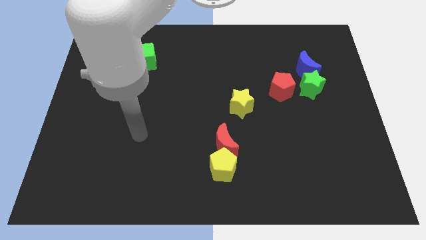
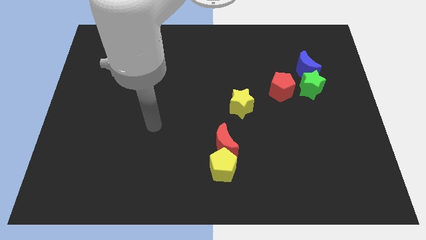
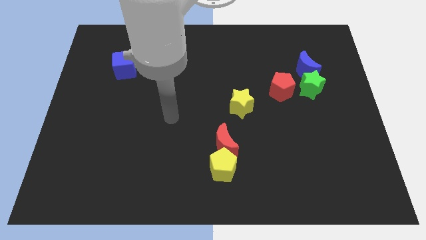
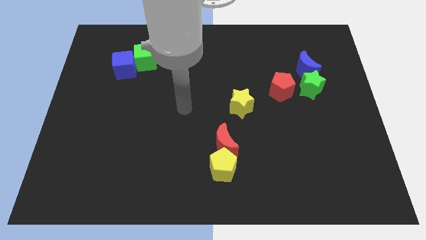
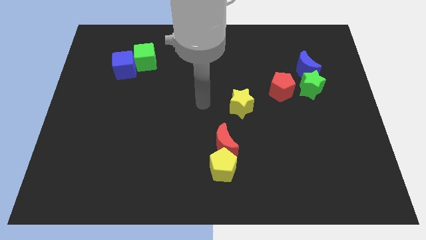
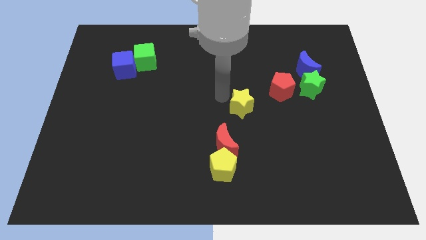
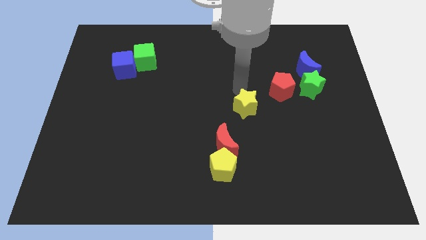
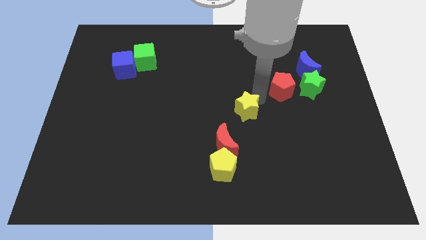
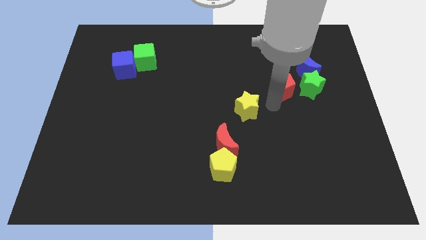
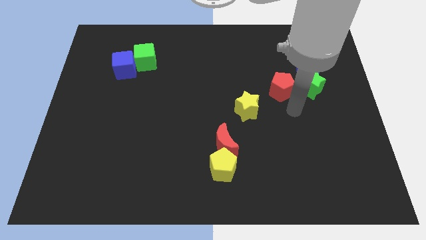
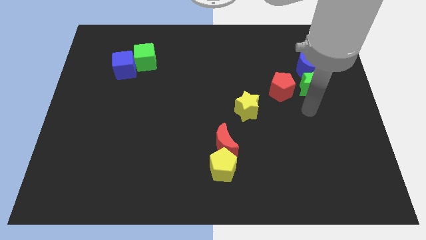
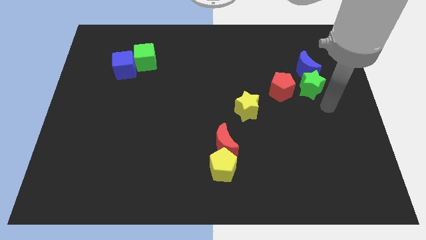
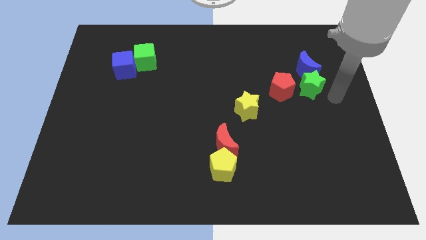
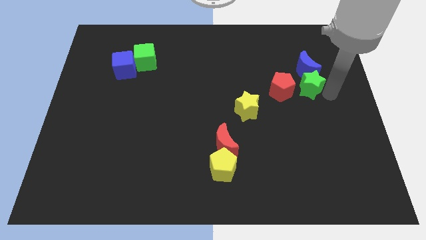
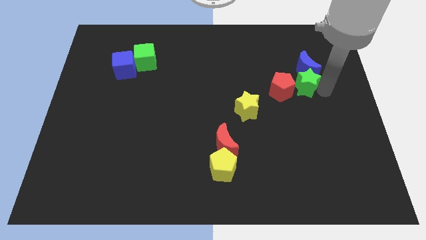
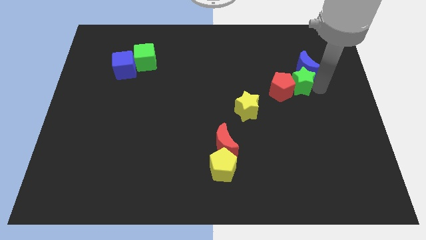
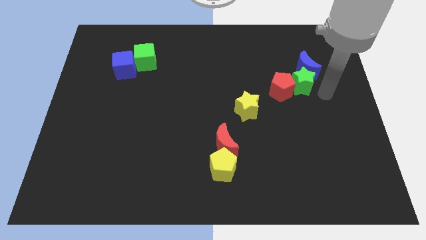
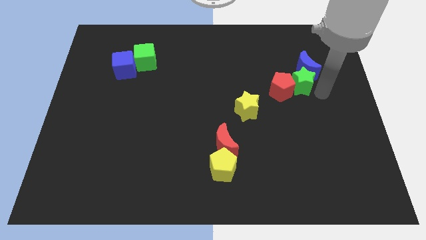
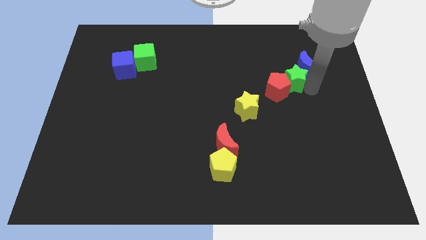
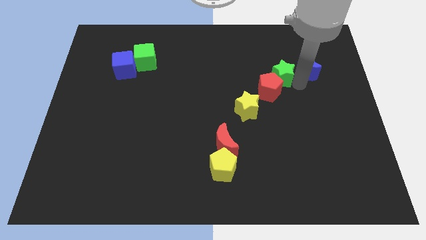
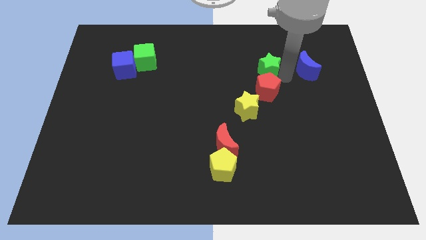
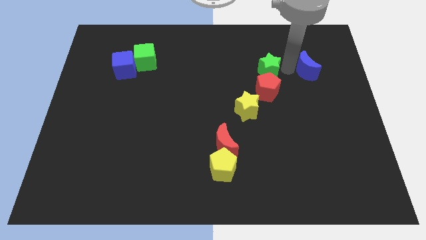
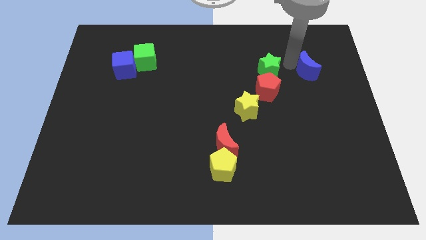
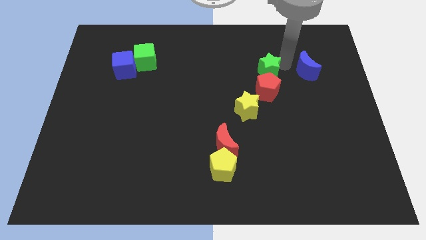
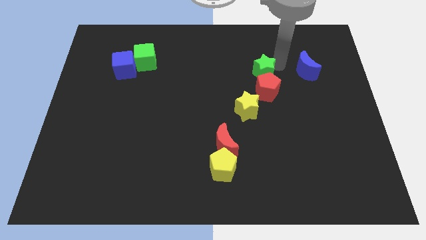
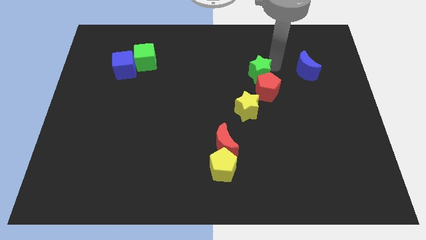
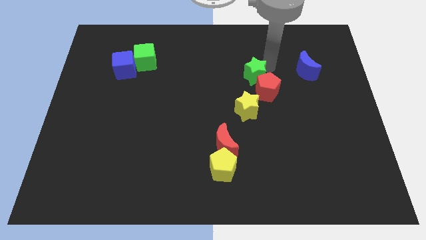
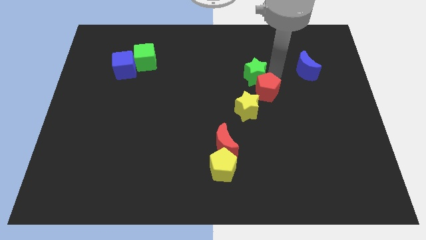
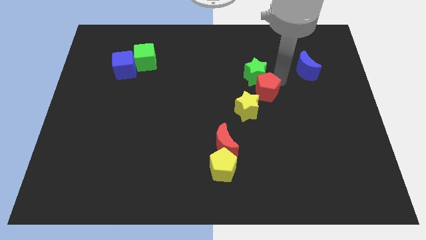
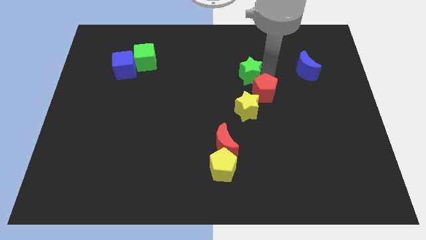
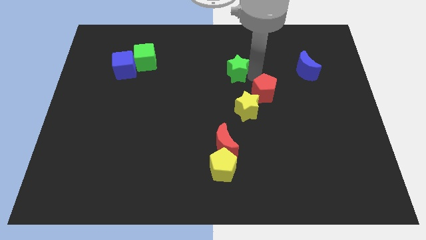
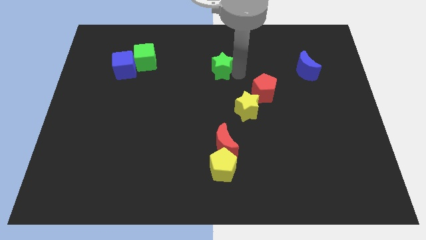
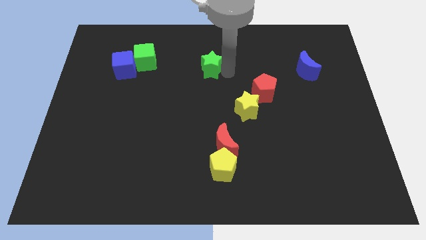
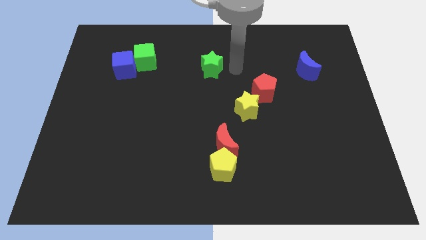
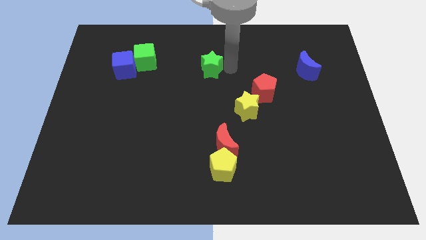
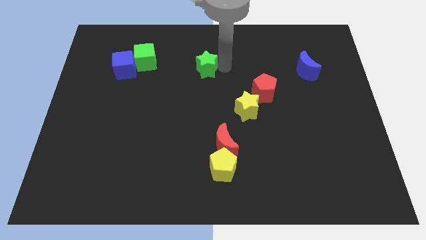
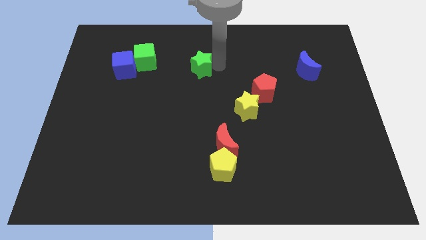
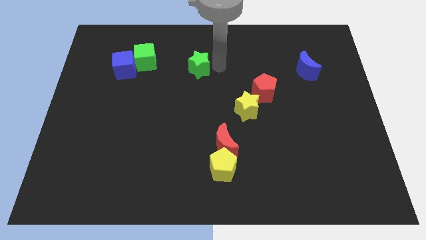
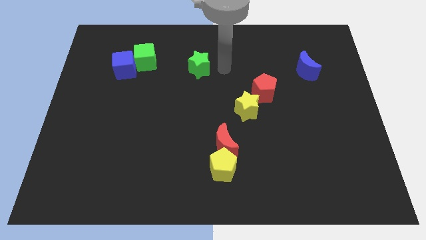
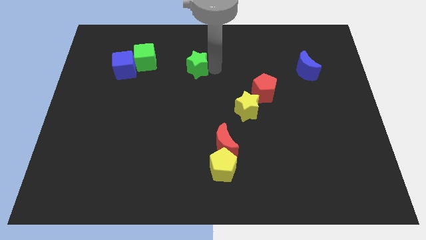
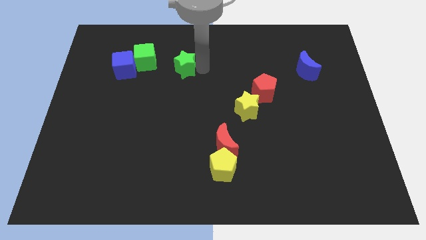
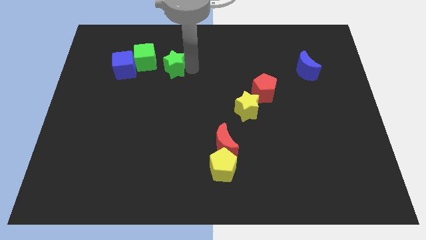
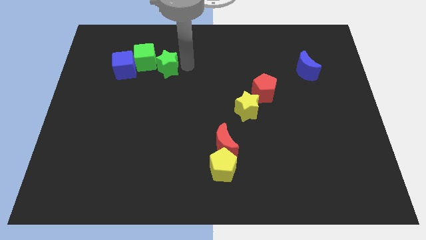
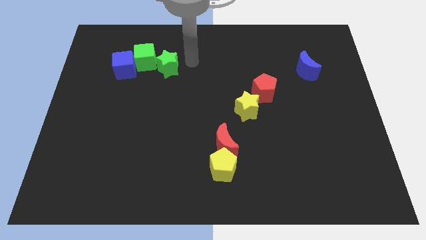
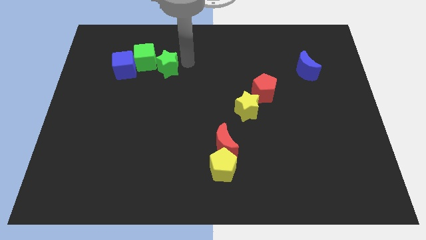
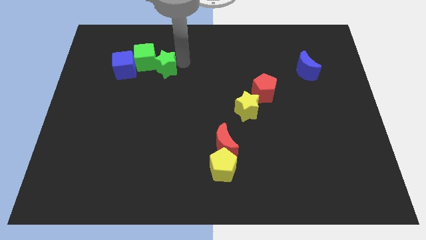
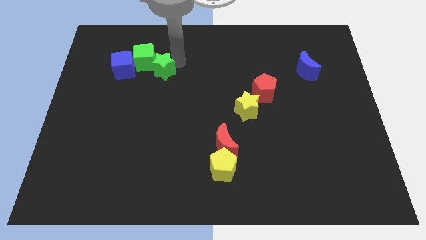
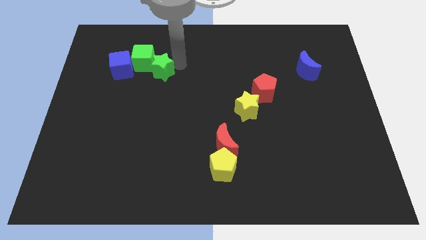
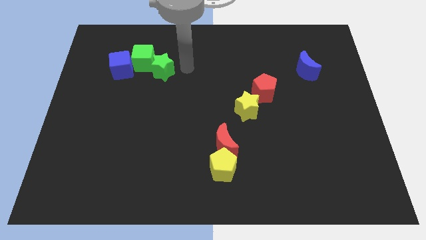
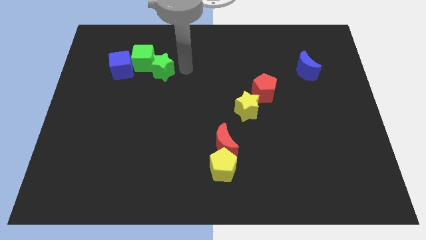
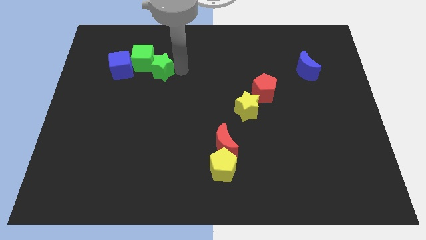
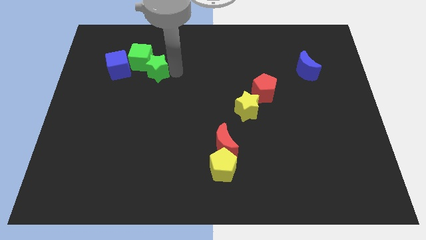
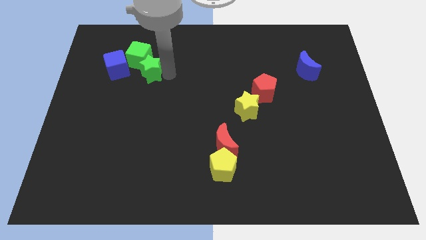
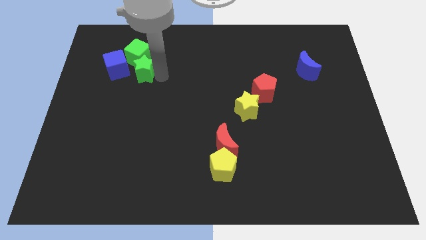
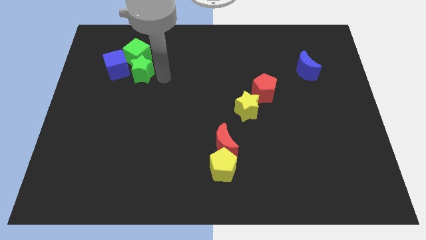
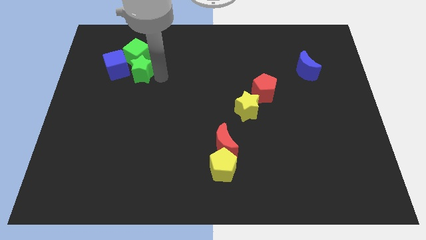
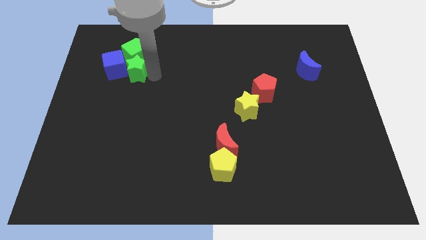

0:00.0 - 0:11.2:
slide the green star towards the blue cube

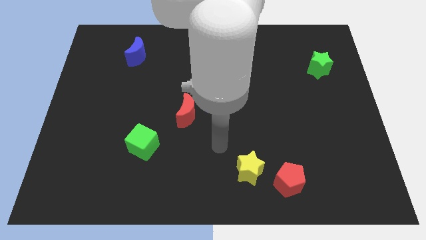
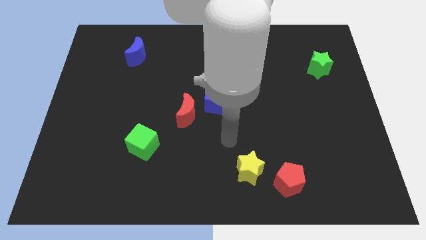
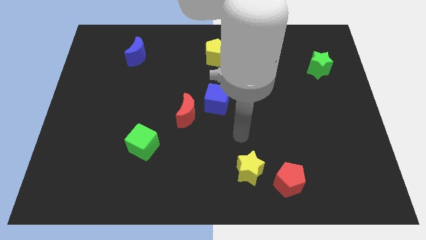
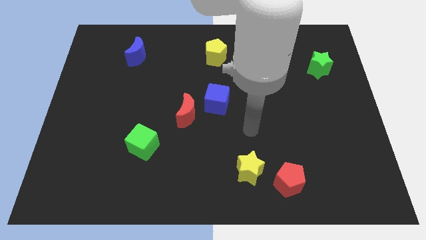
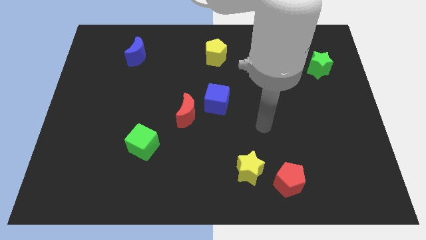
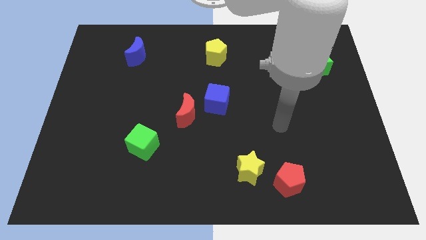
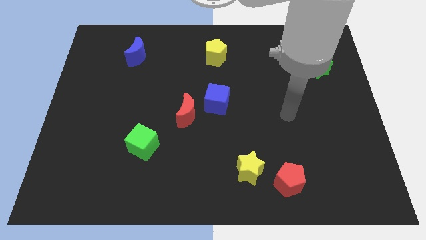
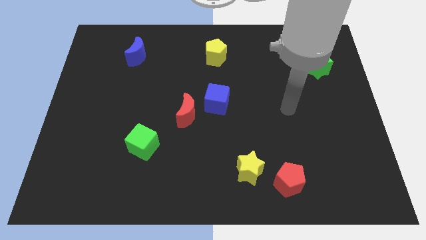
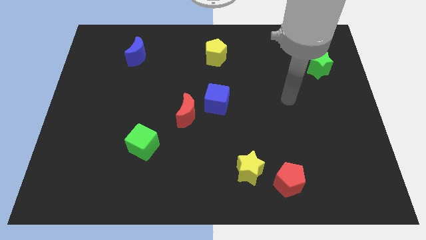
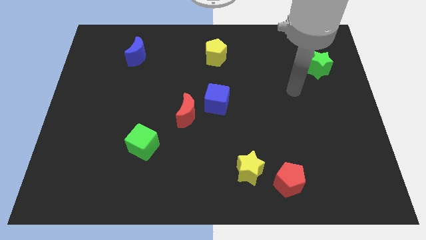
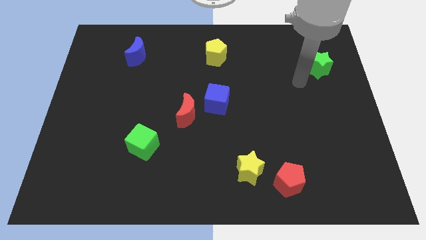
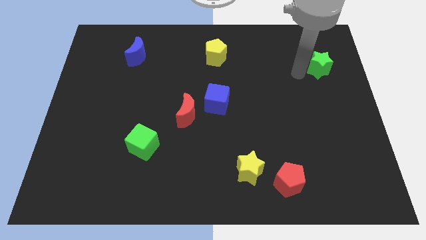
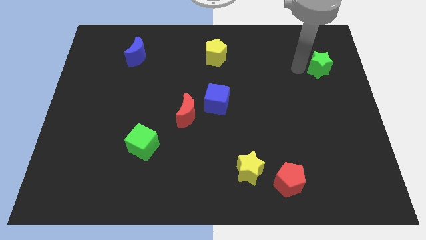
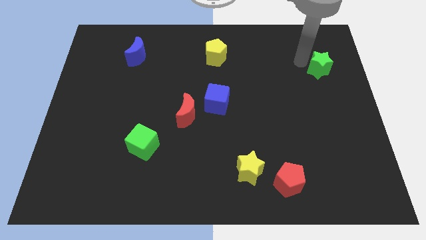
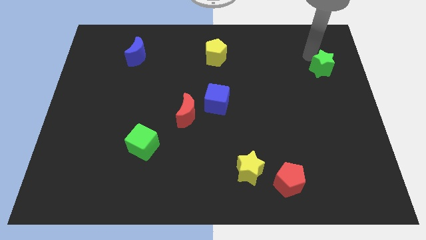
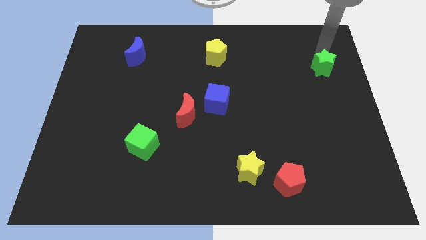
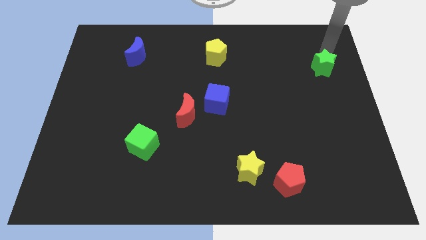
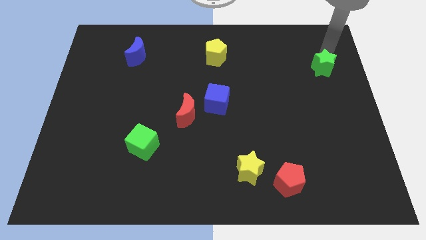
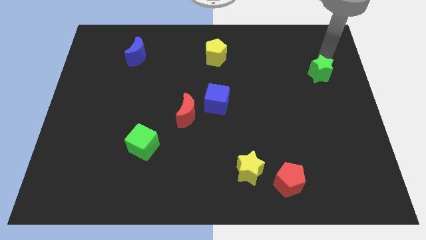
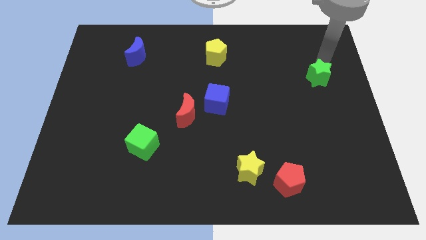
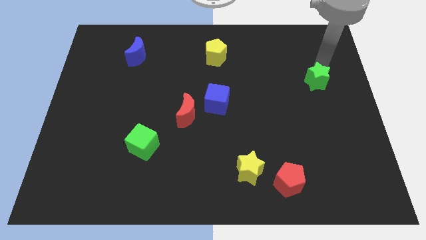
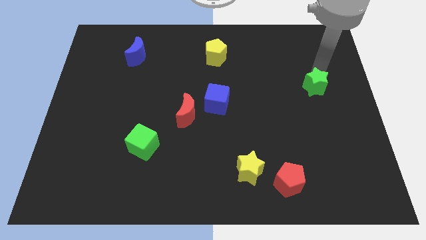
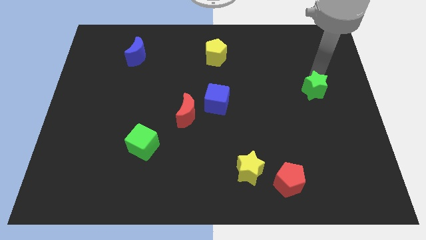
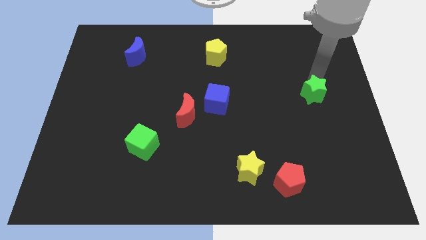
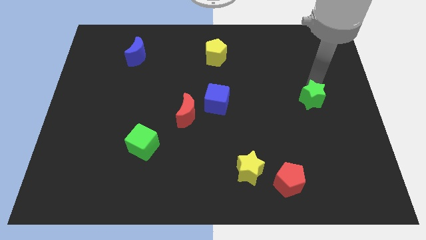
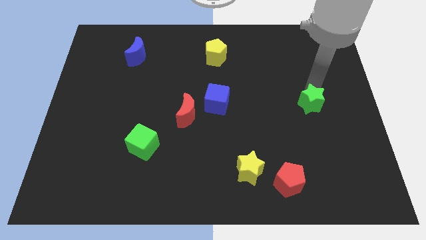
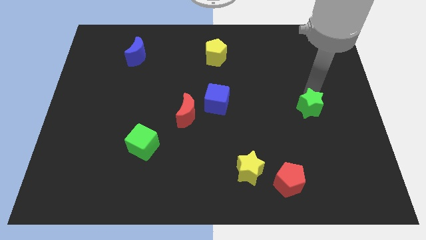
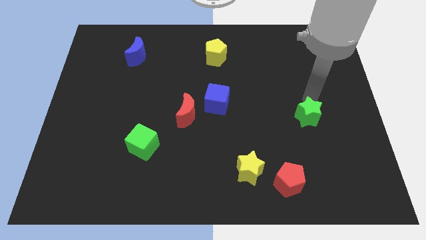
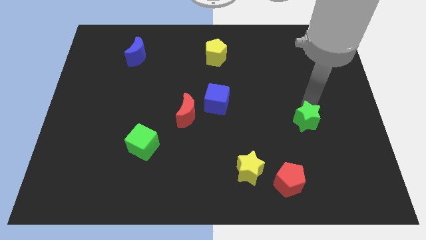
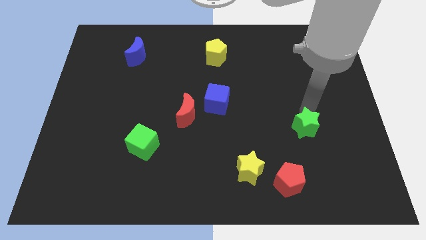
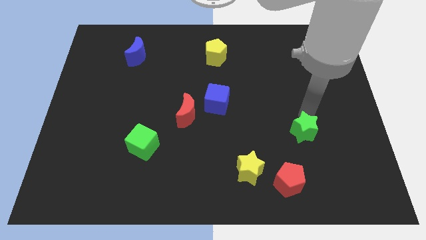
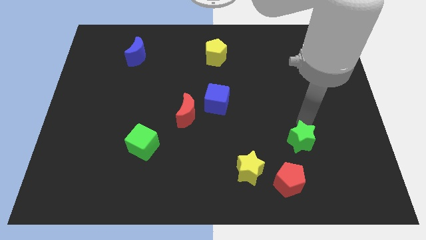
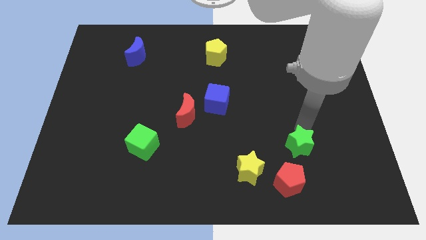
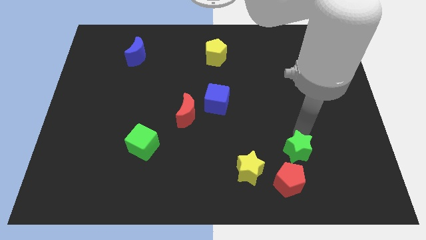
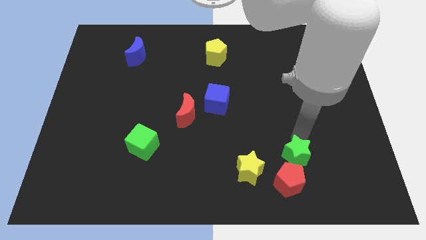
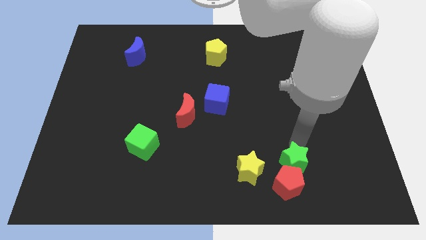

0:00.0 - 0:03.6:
slide the green star next to the red pentagon
